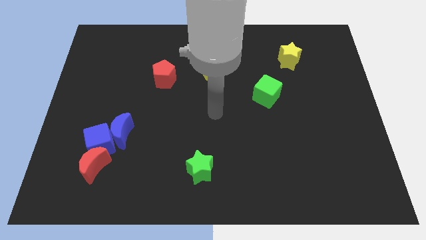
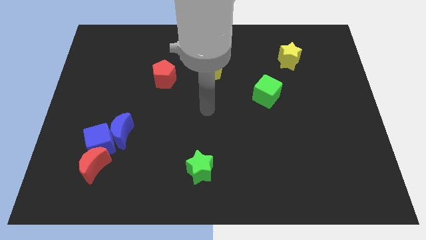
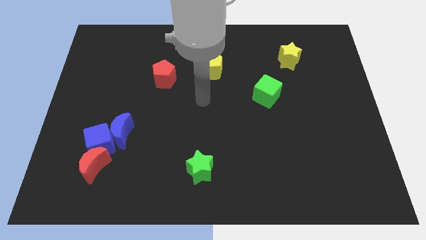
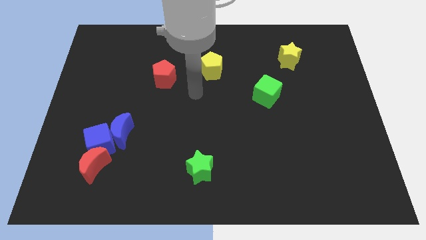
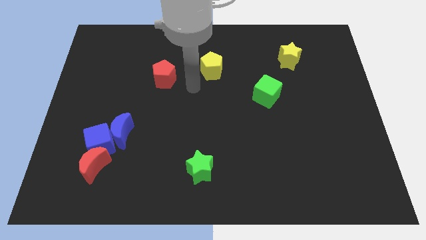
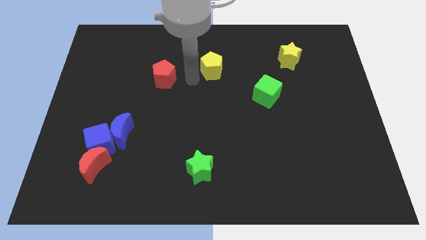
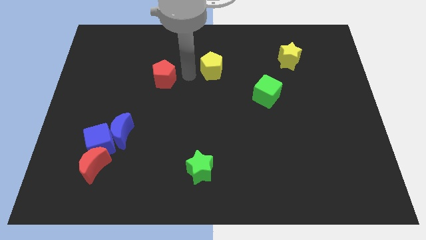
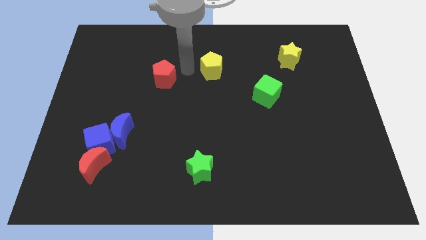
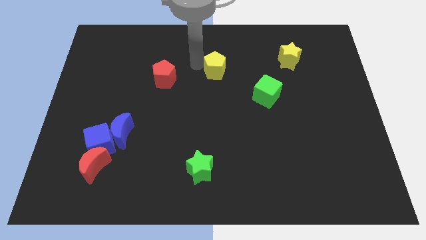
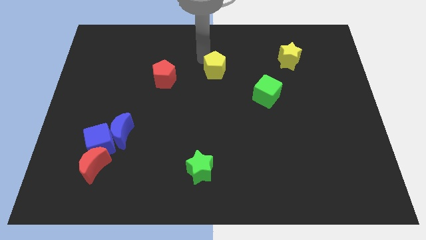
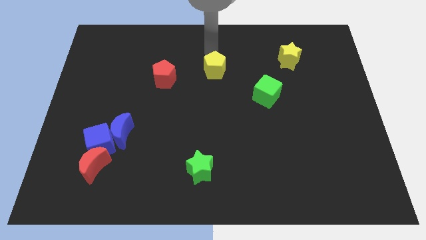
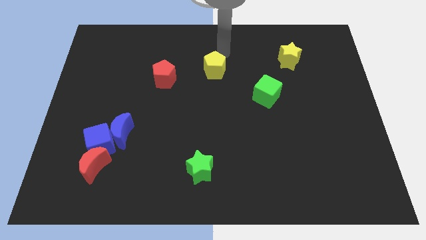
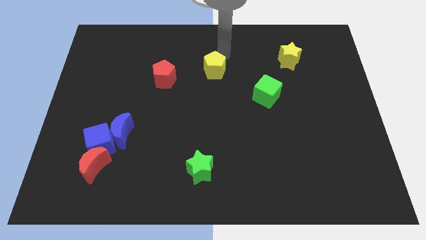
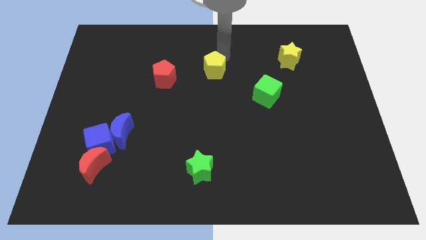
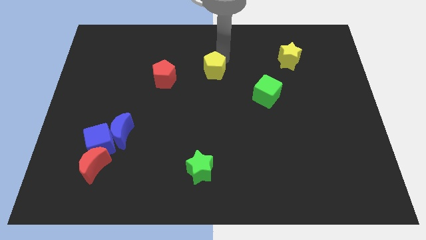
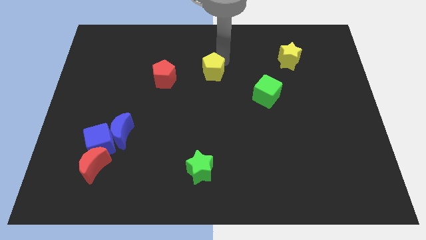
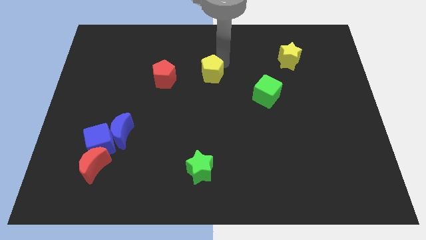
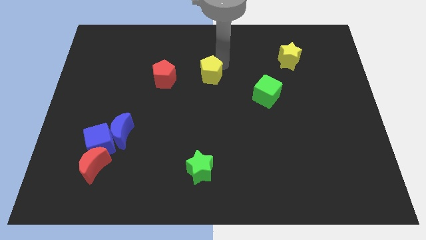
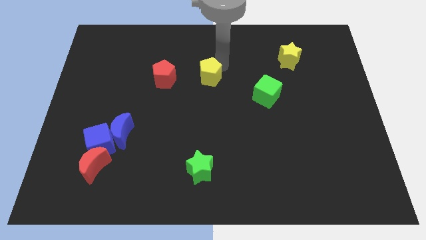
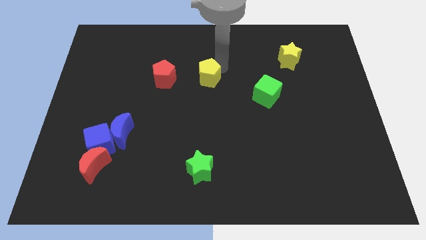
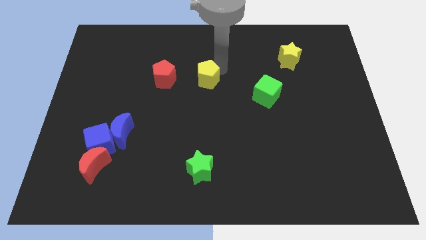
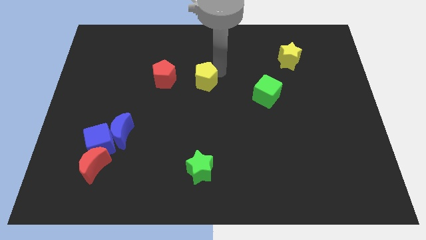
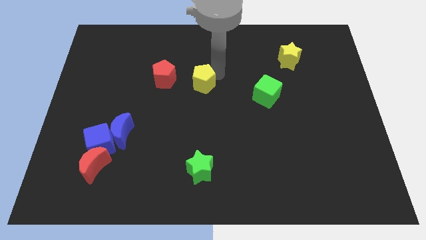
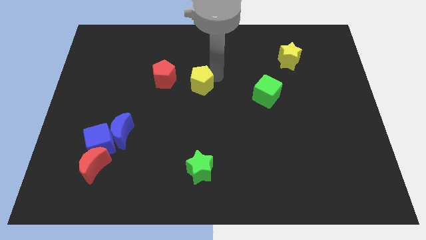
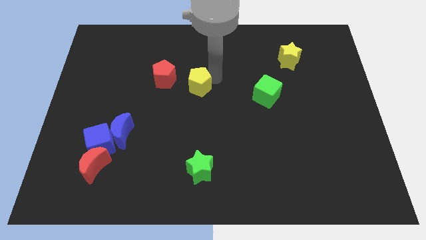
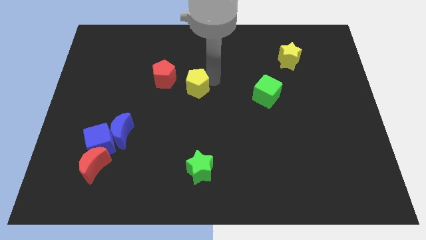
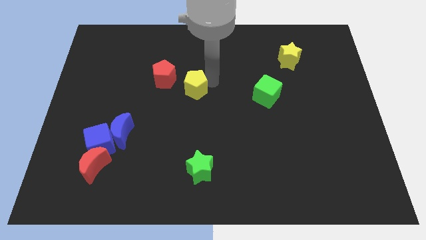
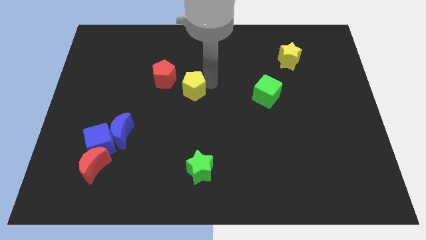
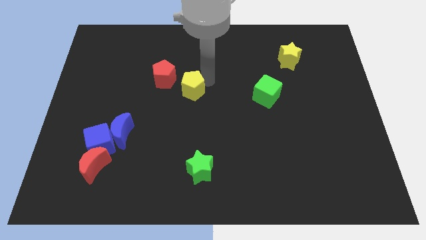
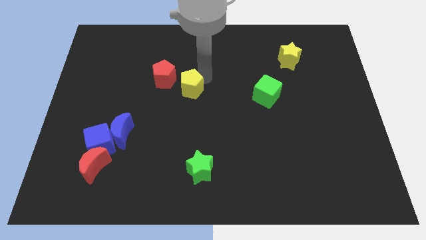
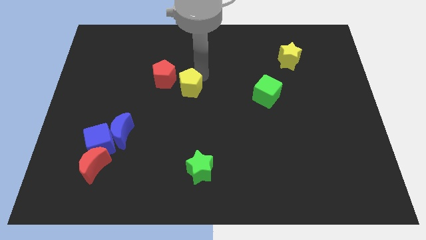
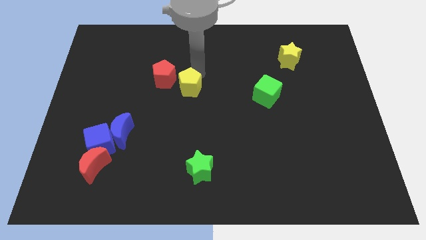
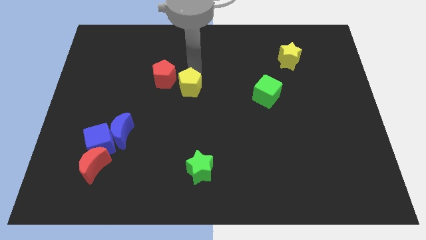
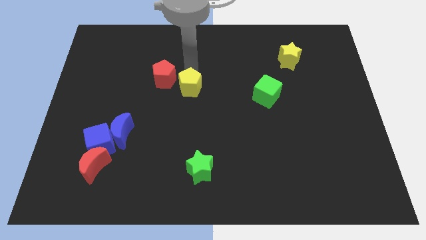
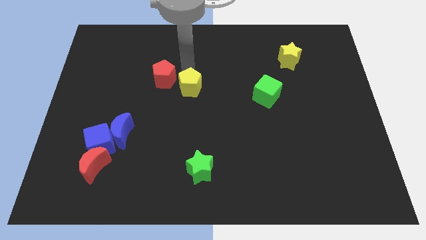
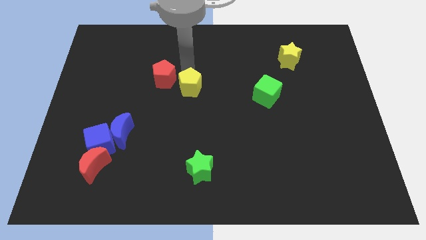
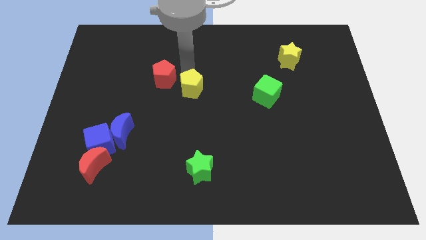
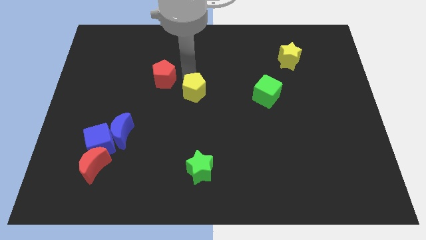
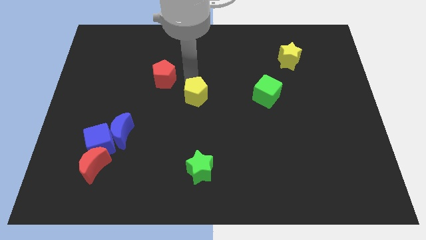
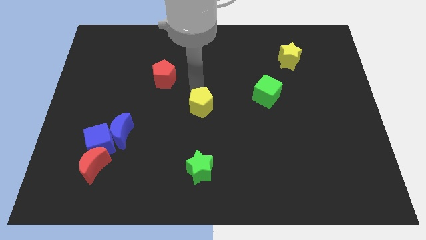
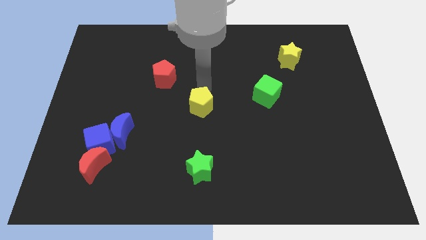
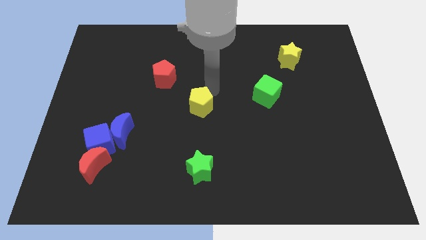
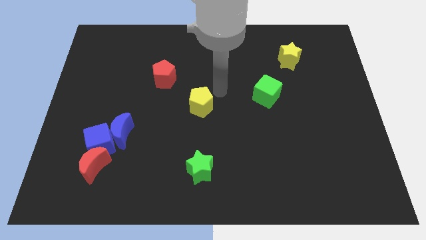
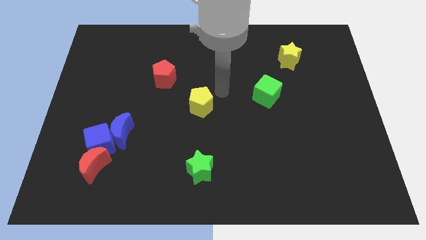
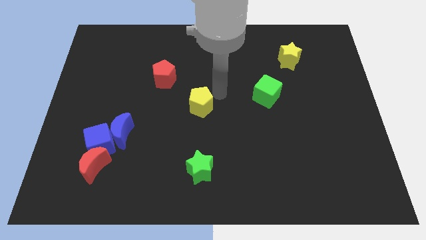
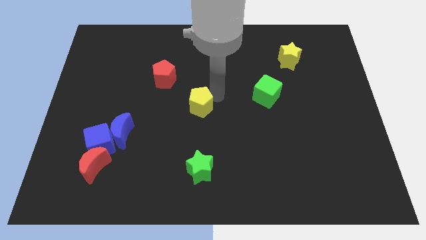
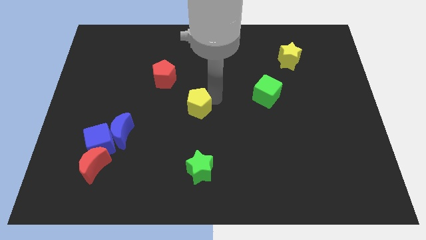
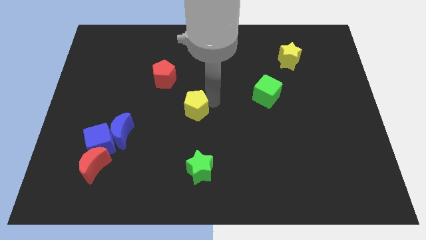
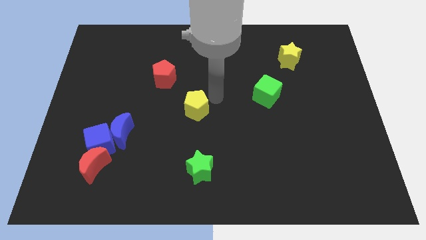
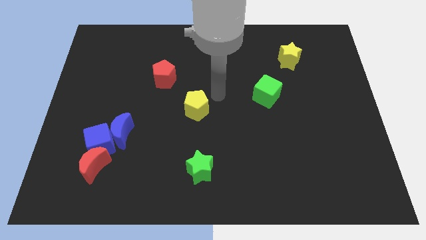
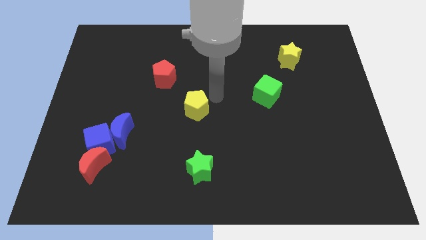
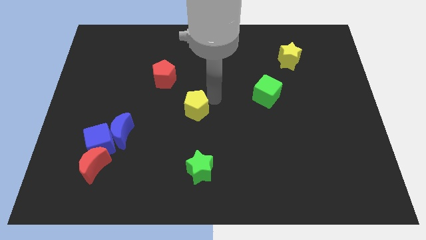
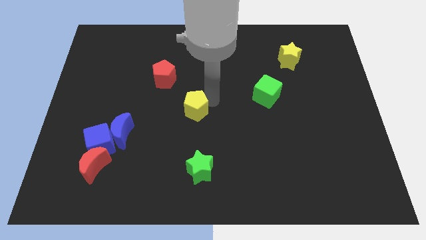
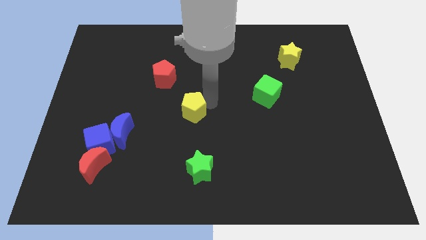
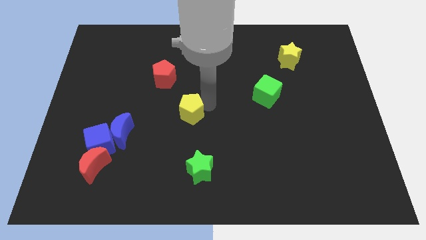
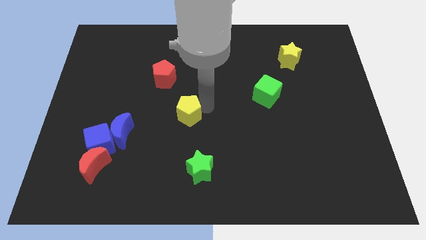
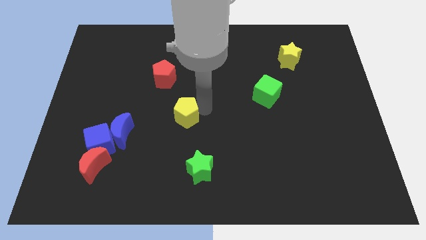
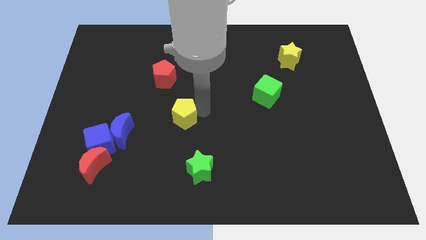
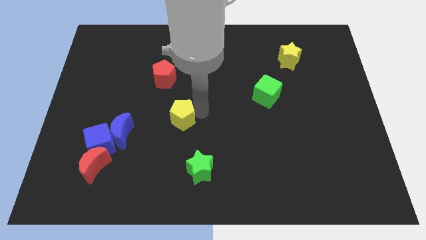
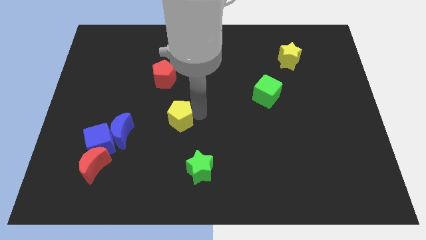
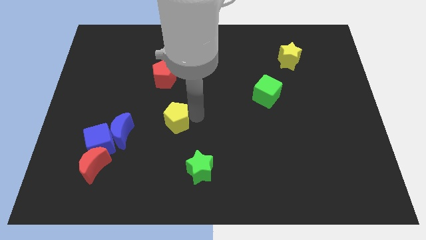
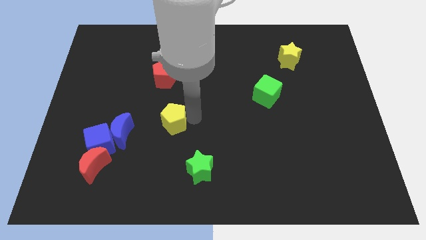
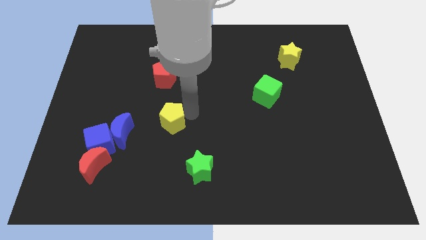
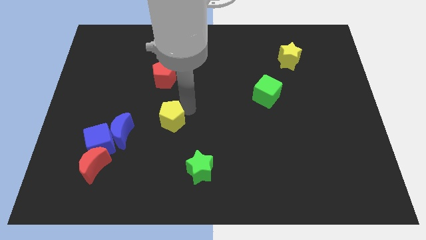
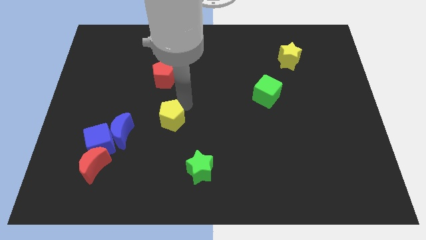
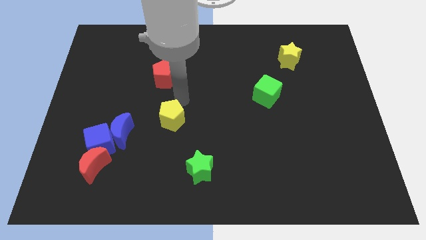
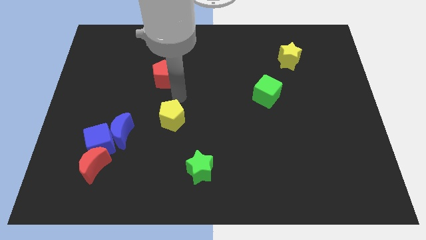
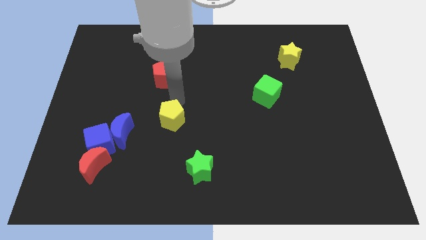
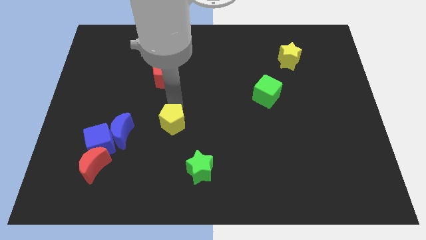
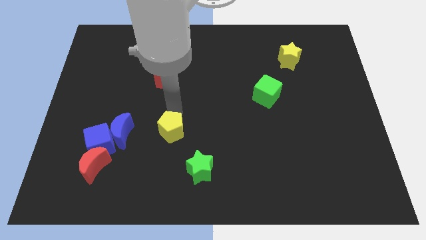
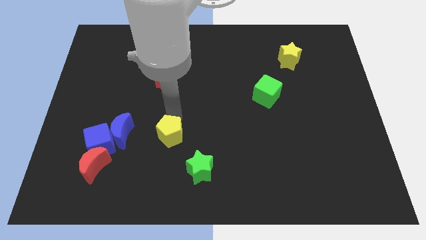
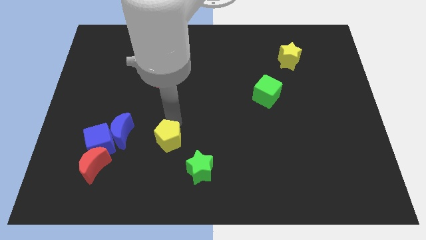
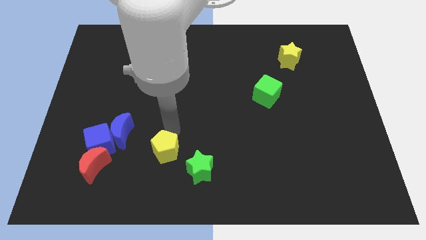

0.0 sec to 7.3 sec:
put the yellow pentagon left of the green star

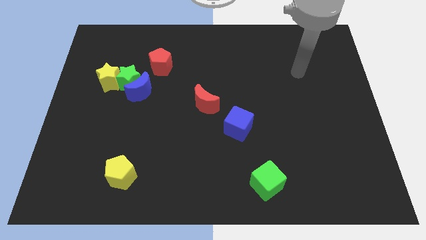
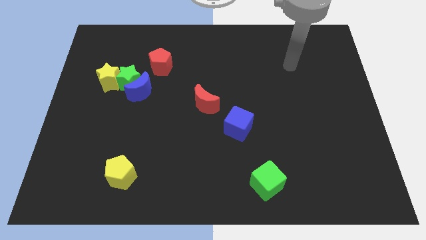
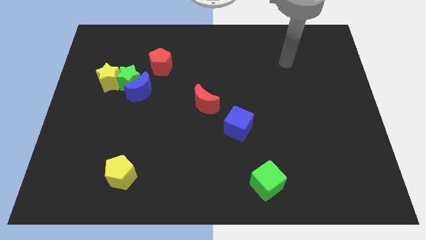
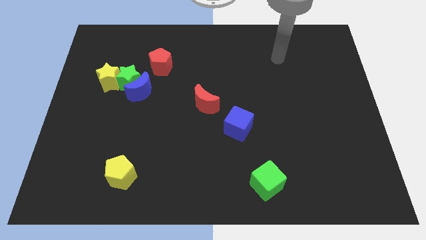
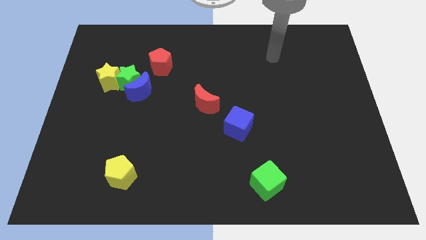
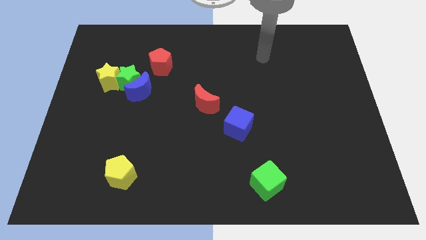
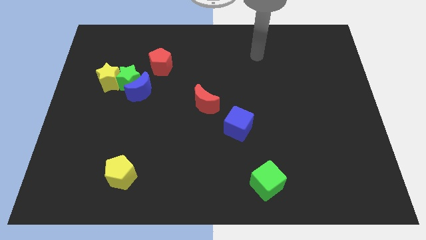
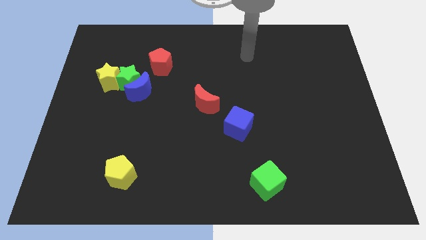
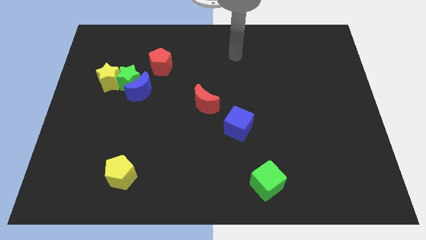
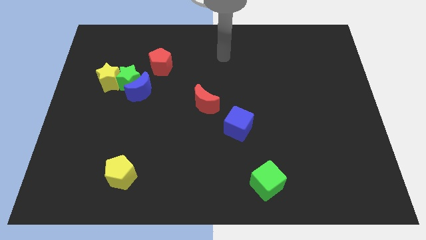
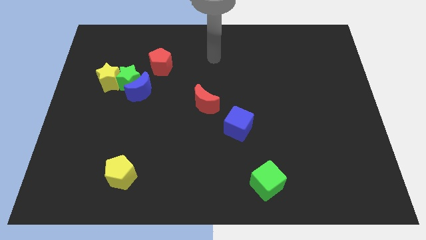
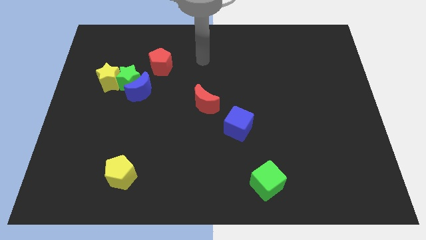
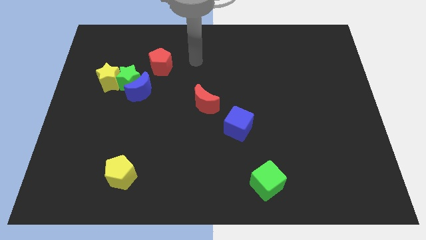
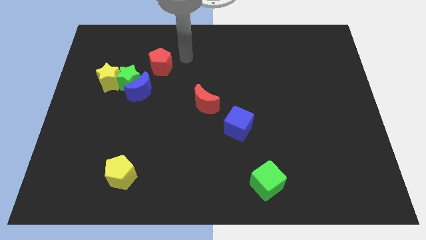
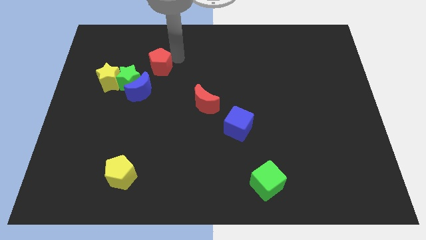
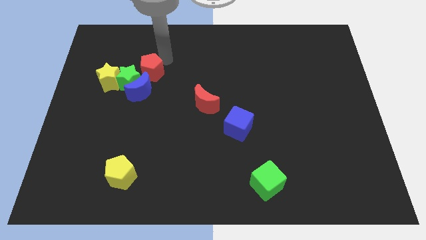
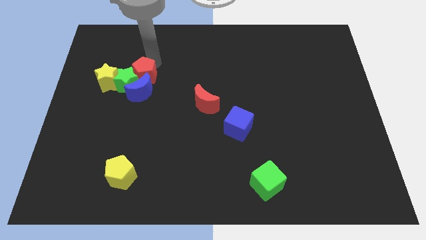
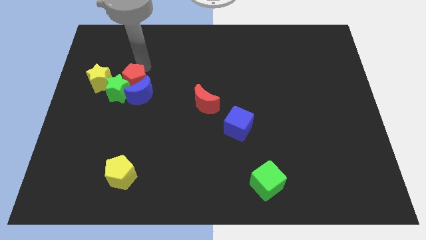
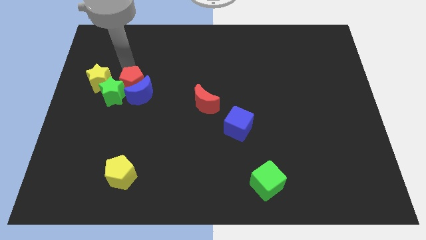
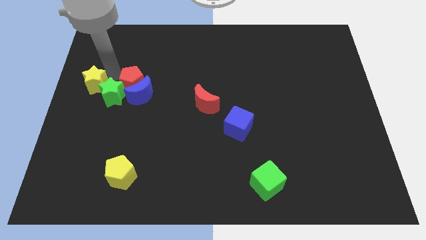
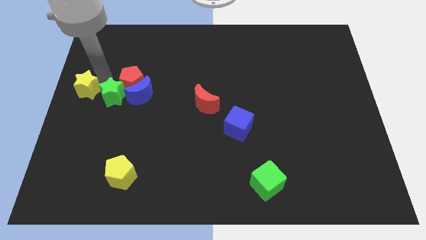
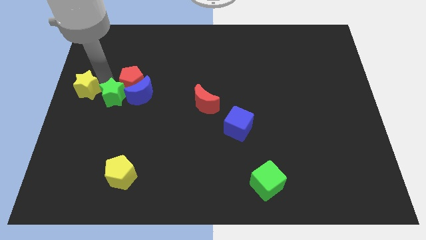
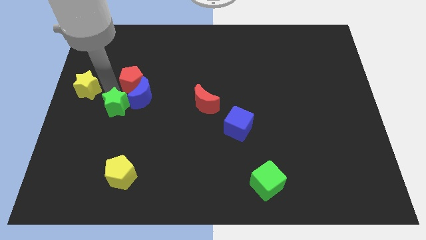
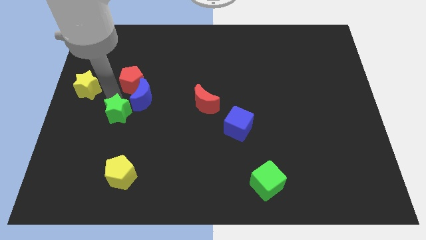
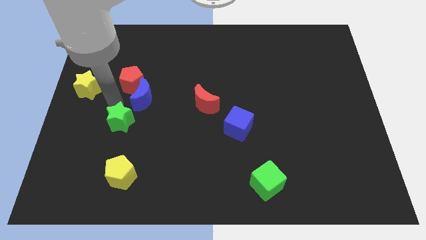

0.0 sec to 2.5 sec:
slide the green star to the bottom side of the blue moon
